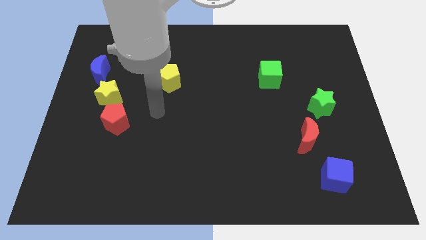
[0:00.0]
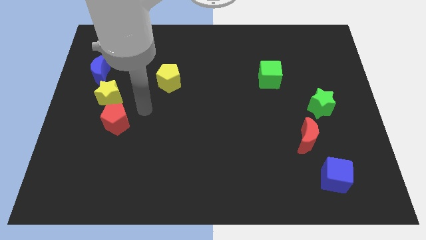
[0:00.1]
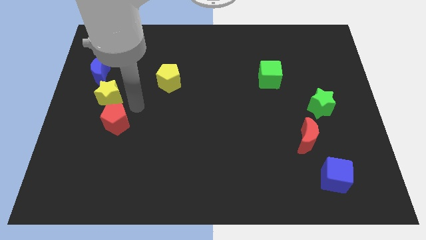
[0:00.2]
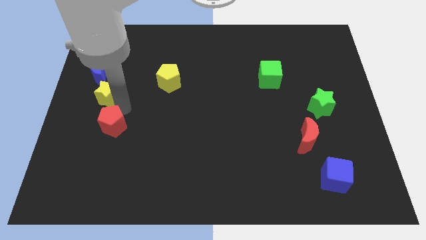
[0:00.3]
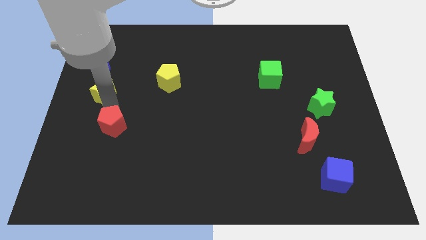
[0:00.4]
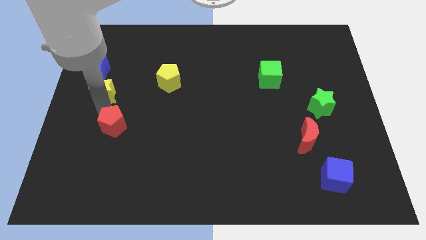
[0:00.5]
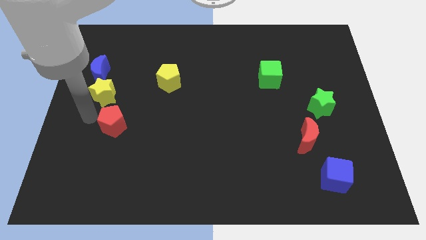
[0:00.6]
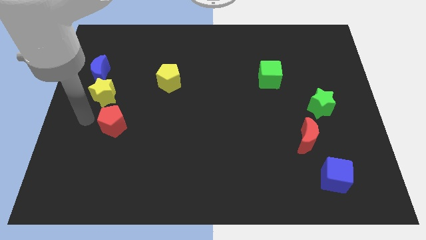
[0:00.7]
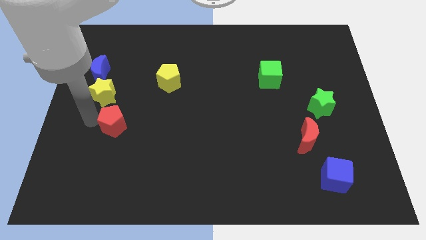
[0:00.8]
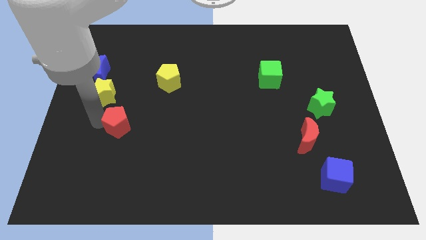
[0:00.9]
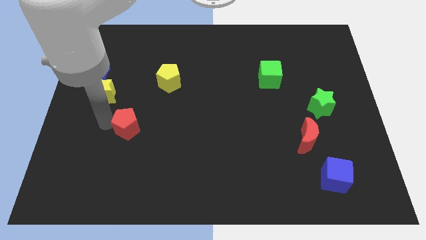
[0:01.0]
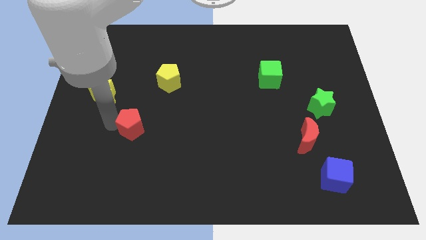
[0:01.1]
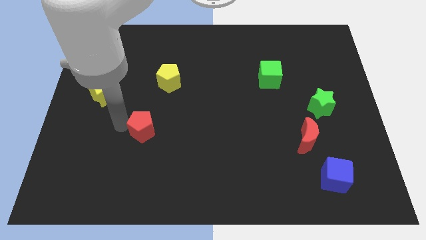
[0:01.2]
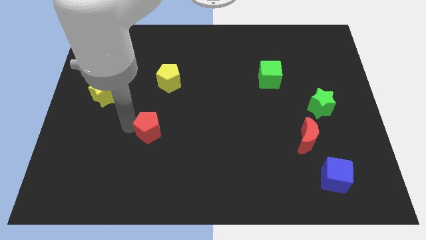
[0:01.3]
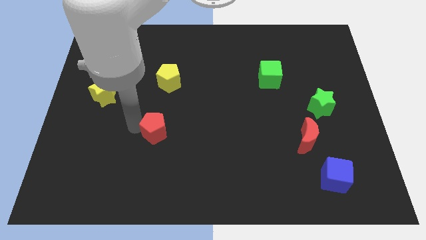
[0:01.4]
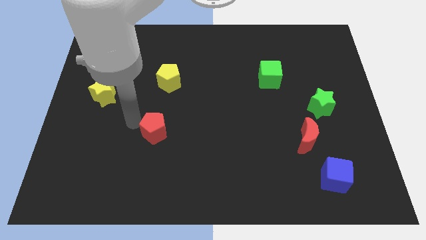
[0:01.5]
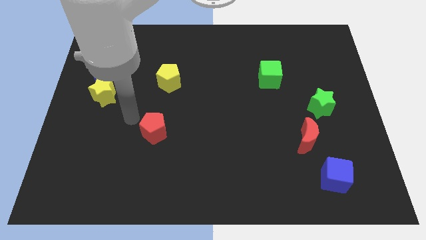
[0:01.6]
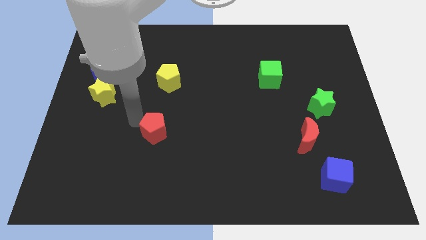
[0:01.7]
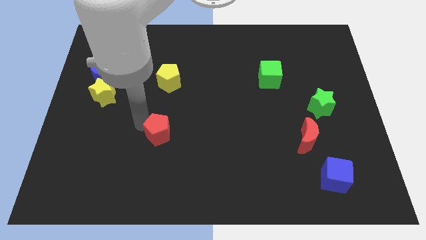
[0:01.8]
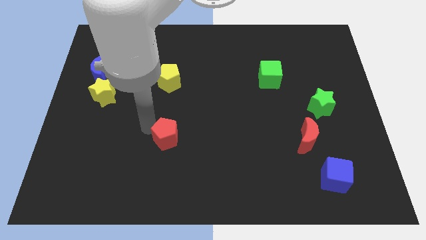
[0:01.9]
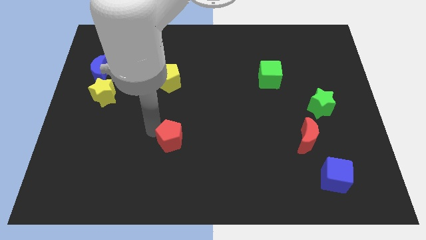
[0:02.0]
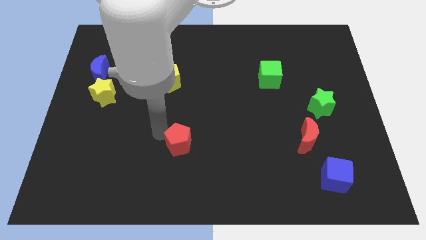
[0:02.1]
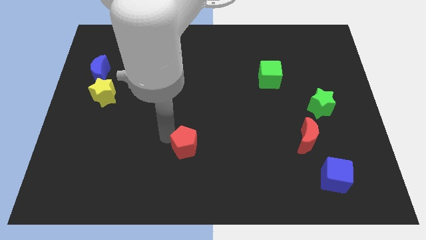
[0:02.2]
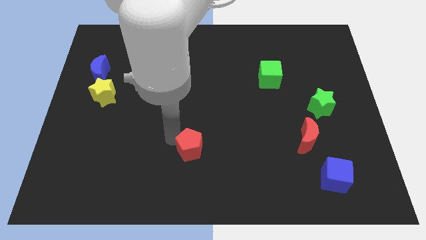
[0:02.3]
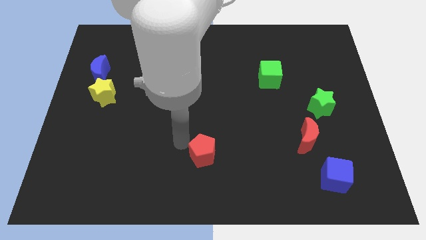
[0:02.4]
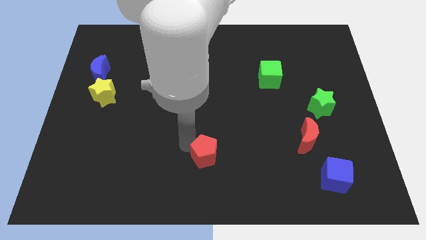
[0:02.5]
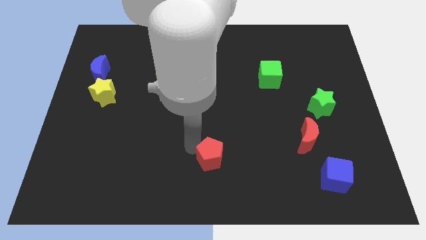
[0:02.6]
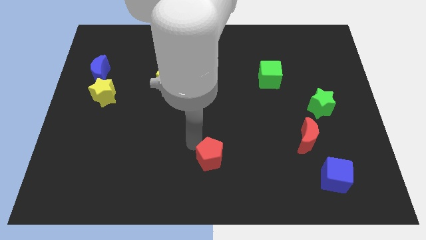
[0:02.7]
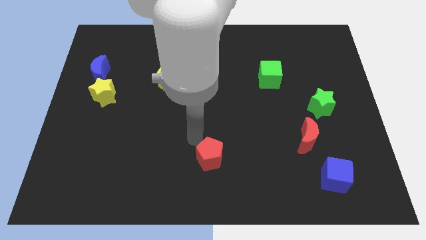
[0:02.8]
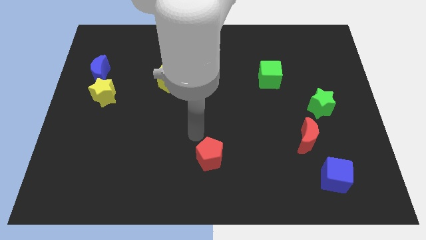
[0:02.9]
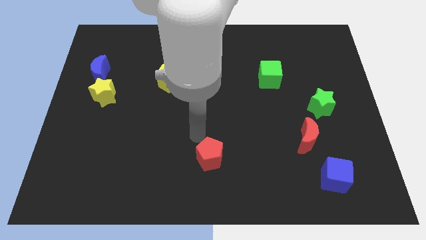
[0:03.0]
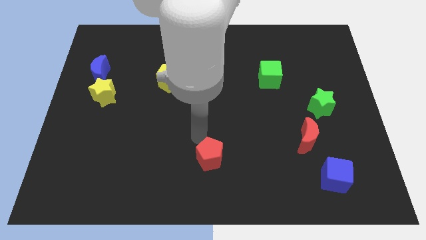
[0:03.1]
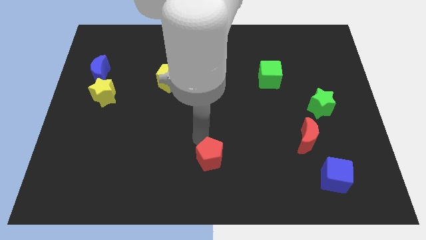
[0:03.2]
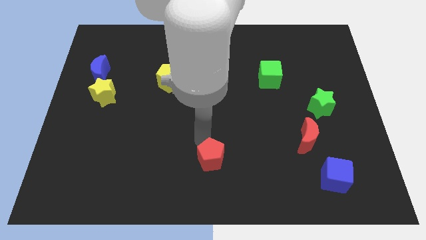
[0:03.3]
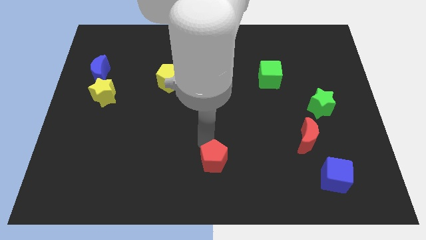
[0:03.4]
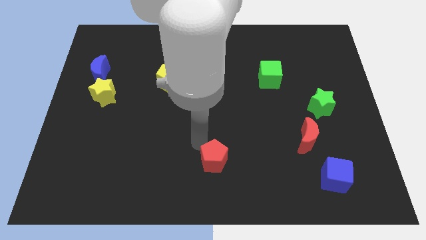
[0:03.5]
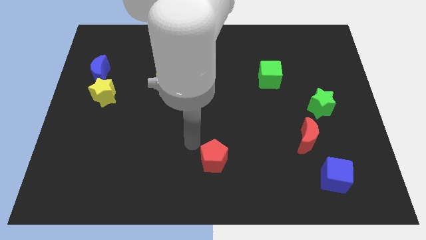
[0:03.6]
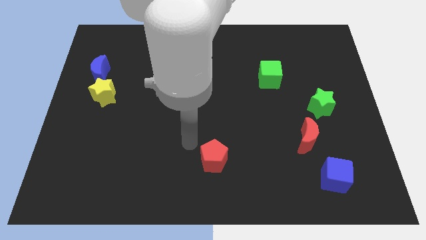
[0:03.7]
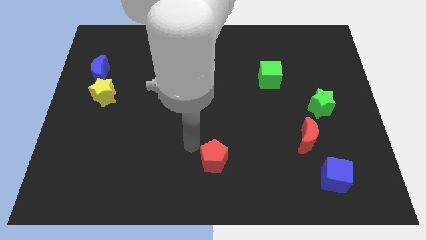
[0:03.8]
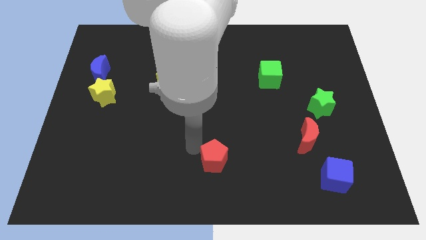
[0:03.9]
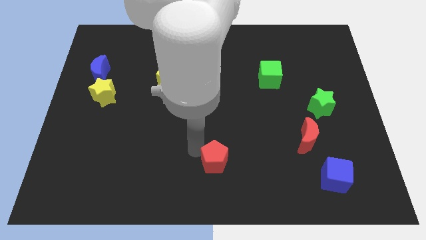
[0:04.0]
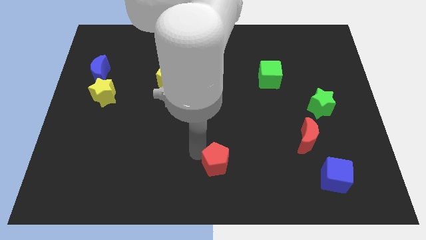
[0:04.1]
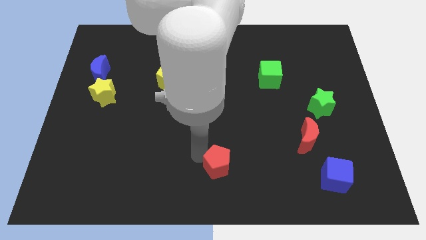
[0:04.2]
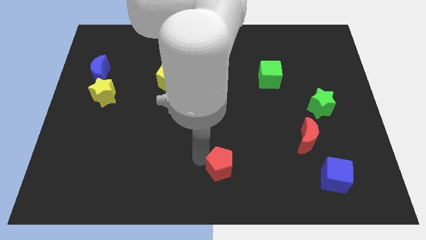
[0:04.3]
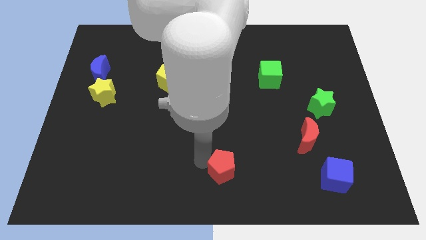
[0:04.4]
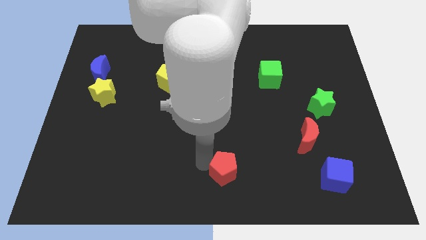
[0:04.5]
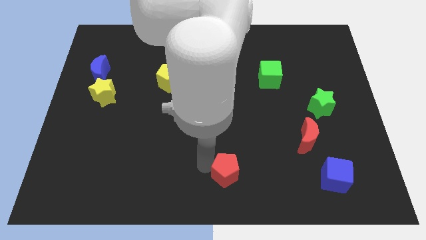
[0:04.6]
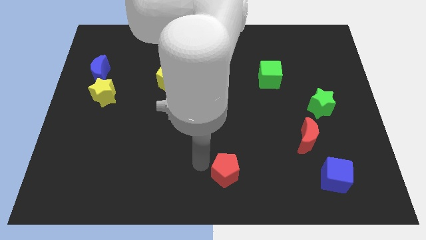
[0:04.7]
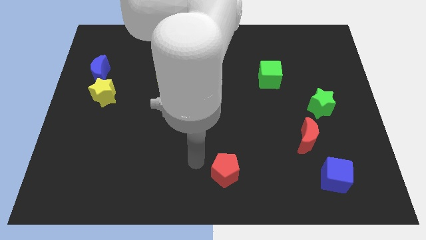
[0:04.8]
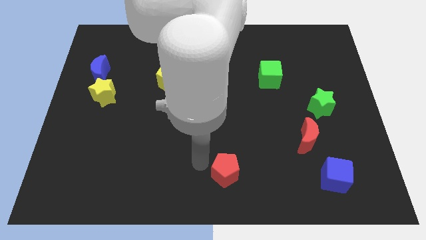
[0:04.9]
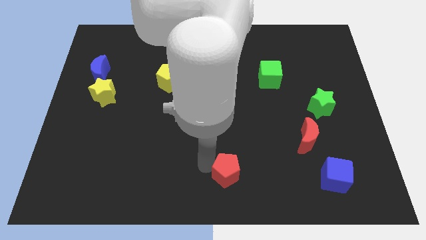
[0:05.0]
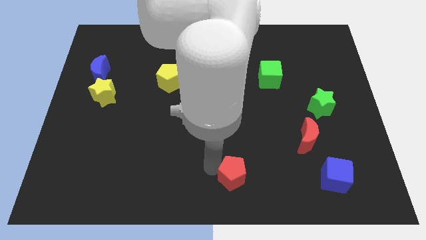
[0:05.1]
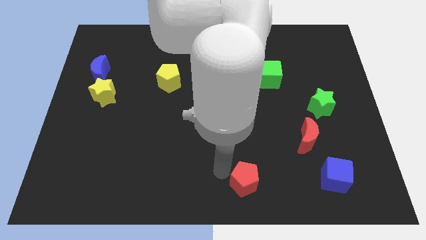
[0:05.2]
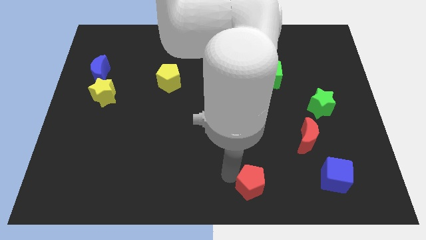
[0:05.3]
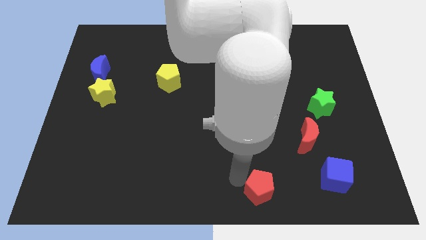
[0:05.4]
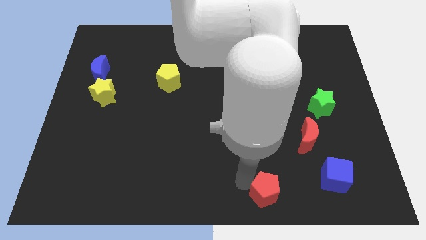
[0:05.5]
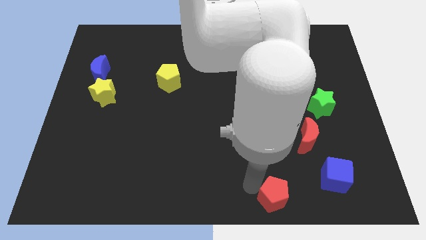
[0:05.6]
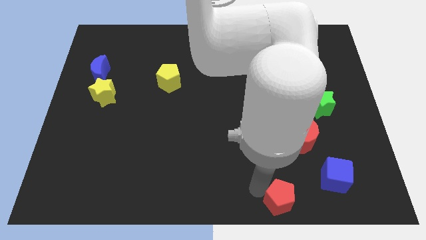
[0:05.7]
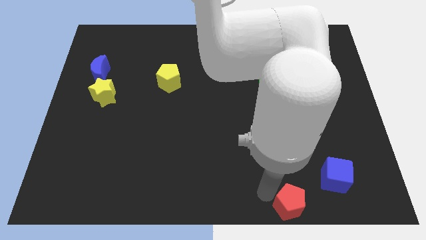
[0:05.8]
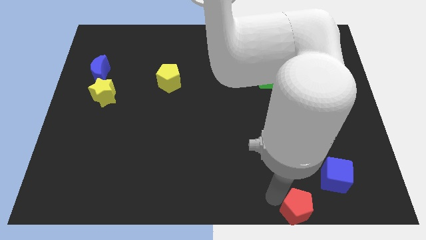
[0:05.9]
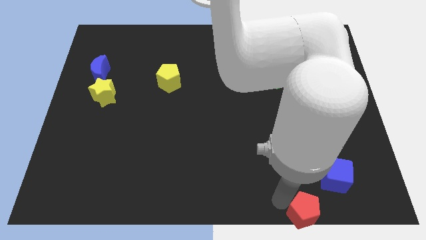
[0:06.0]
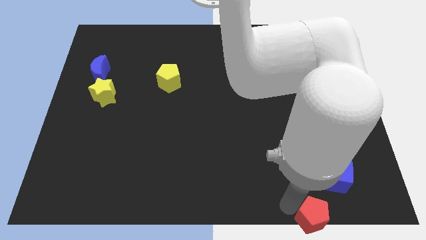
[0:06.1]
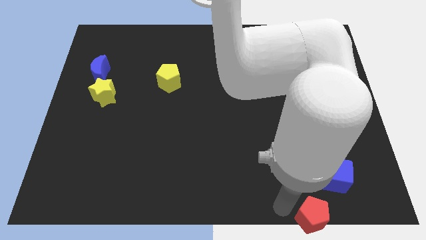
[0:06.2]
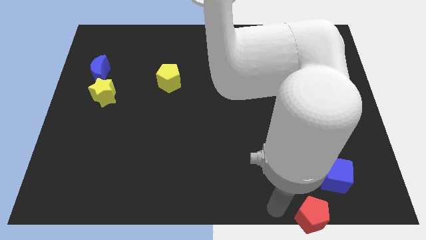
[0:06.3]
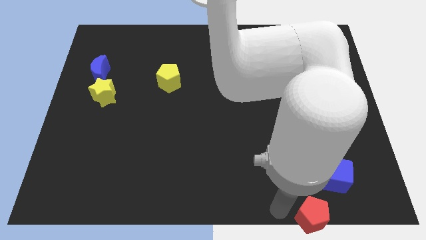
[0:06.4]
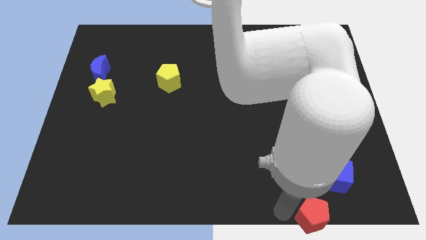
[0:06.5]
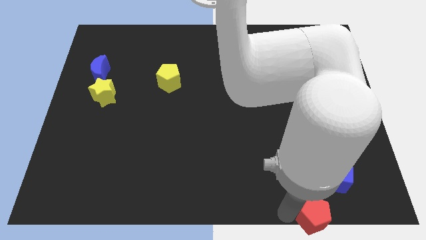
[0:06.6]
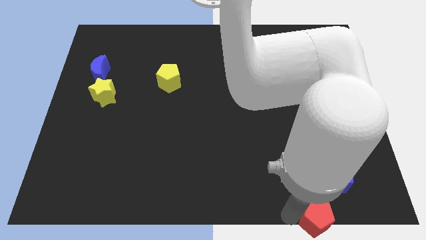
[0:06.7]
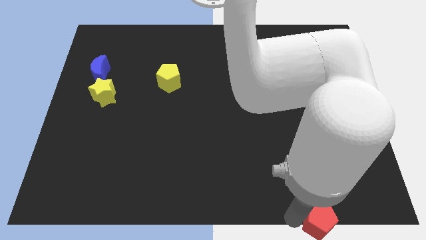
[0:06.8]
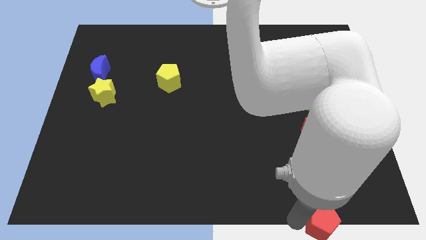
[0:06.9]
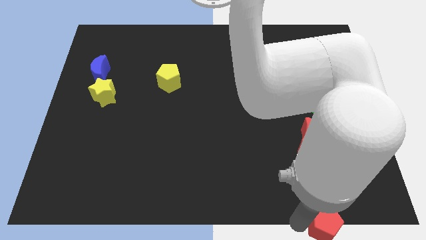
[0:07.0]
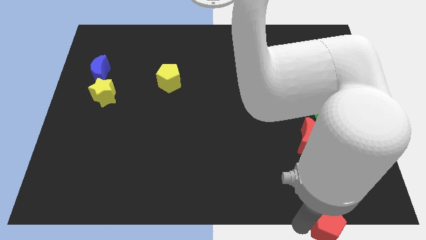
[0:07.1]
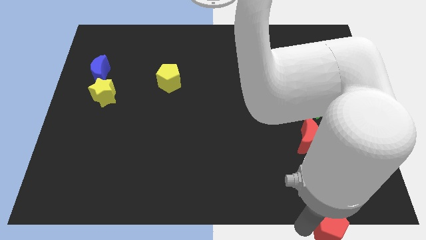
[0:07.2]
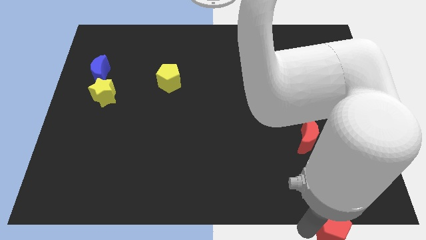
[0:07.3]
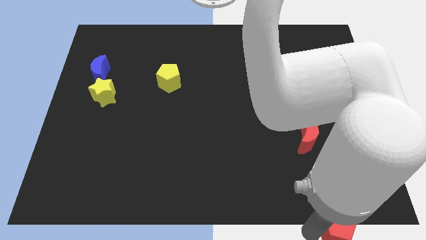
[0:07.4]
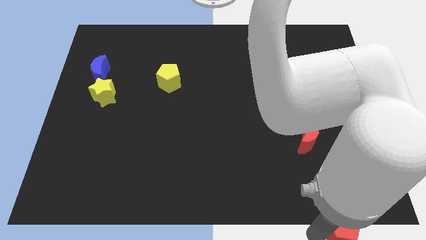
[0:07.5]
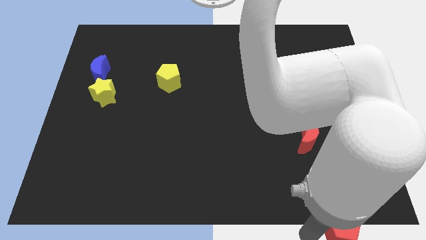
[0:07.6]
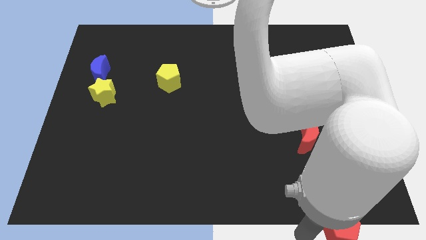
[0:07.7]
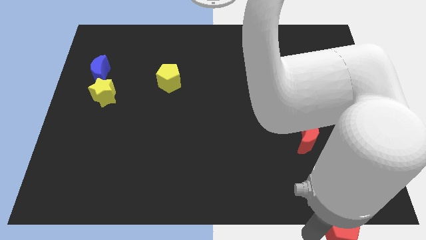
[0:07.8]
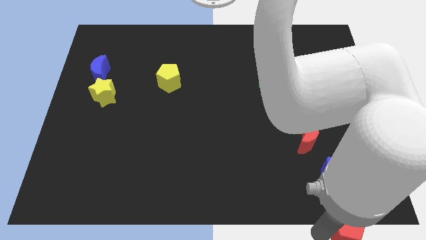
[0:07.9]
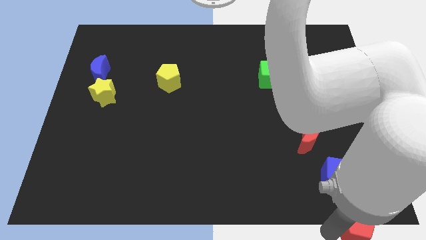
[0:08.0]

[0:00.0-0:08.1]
slide the red pentagon to the bottom right of the board
